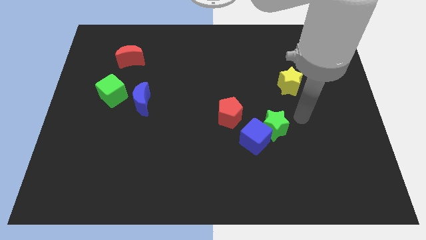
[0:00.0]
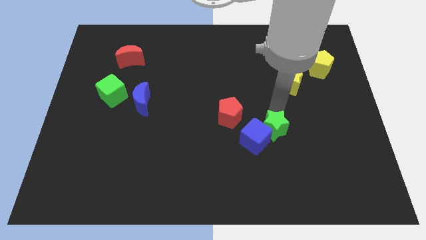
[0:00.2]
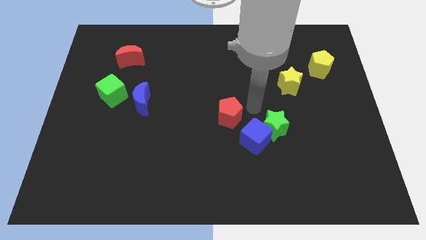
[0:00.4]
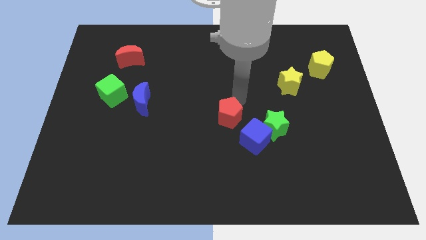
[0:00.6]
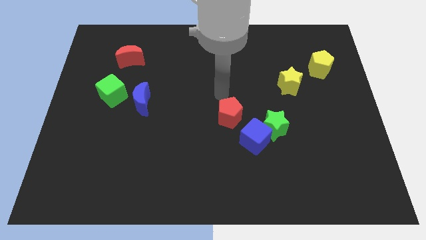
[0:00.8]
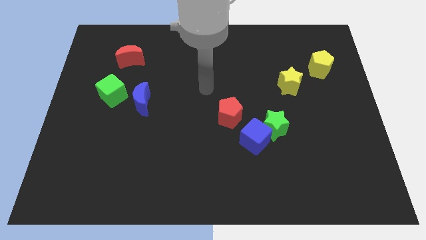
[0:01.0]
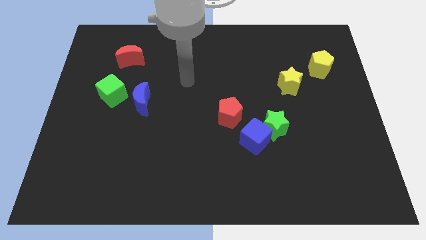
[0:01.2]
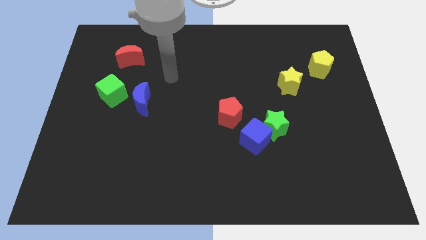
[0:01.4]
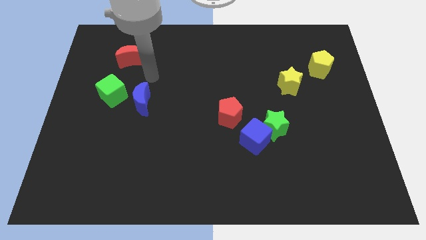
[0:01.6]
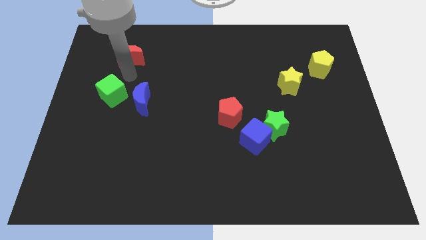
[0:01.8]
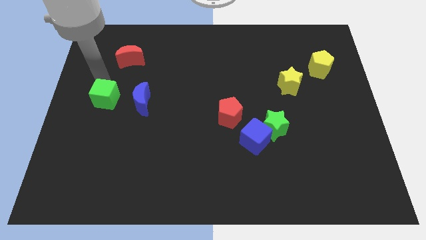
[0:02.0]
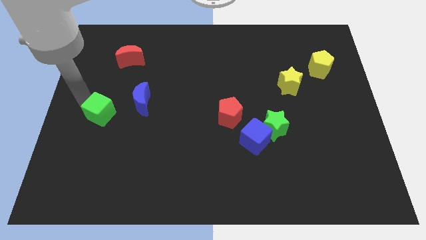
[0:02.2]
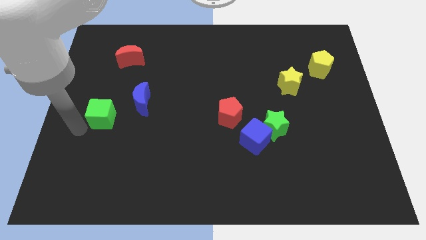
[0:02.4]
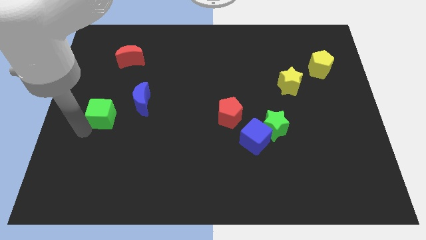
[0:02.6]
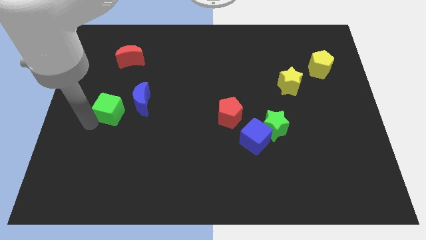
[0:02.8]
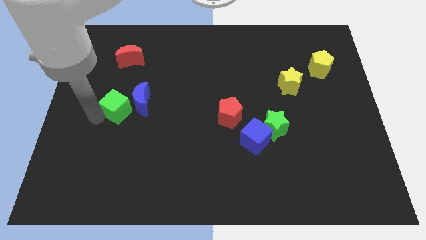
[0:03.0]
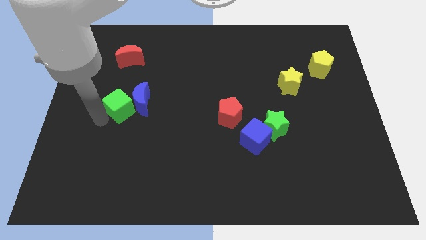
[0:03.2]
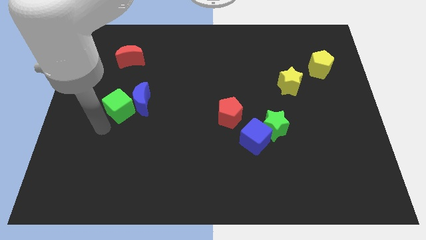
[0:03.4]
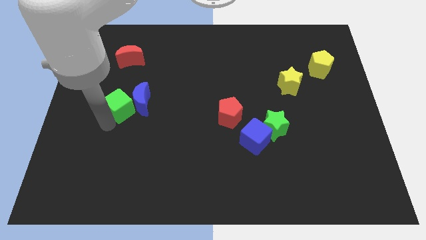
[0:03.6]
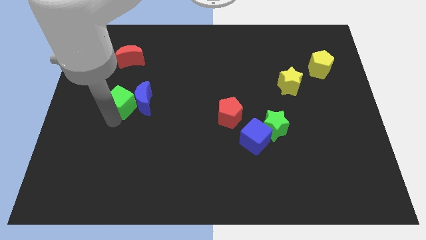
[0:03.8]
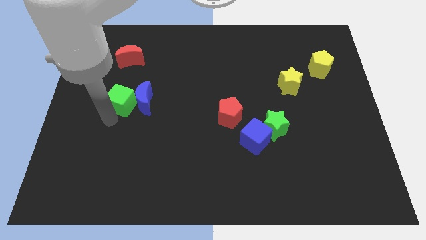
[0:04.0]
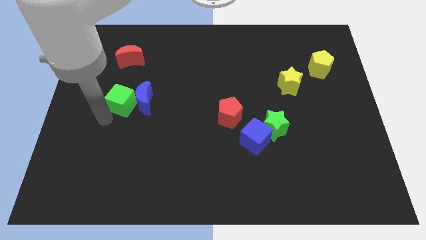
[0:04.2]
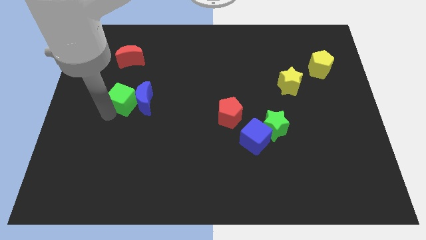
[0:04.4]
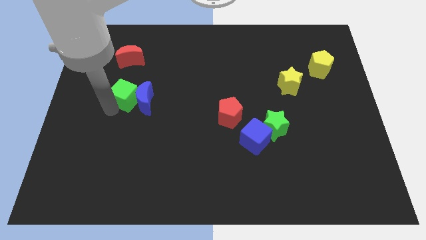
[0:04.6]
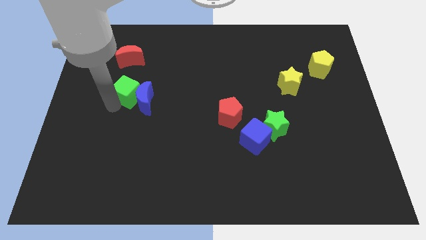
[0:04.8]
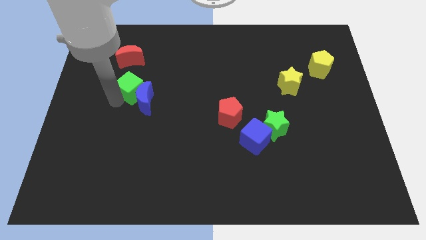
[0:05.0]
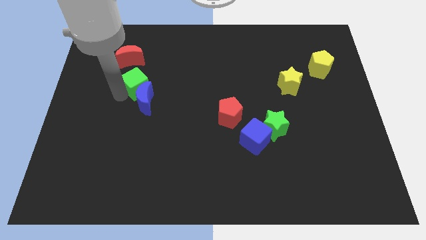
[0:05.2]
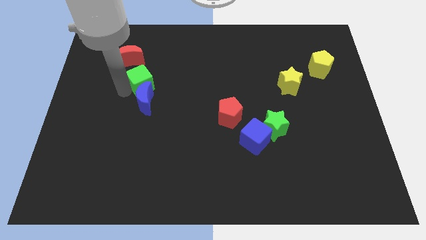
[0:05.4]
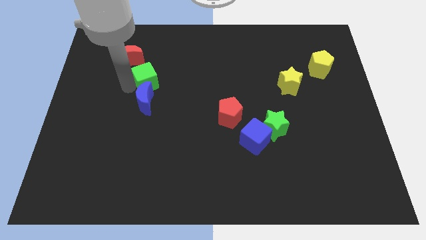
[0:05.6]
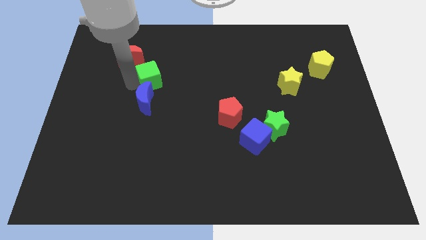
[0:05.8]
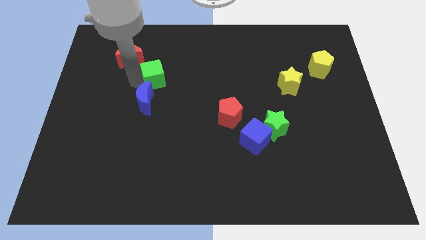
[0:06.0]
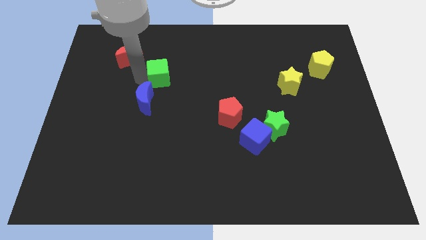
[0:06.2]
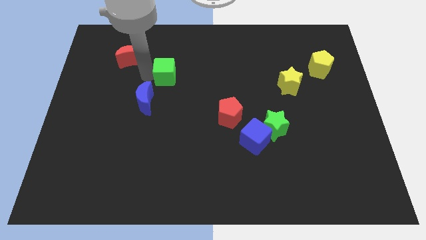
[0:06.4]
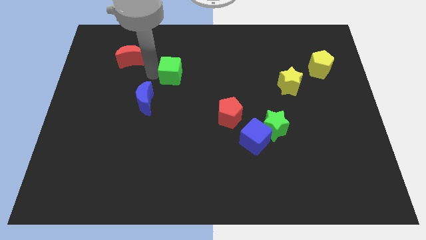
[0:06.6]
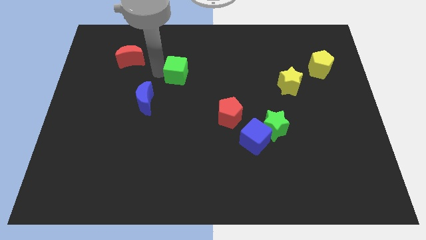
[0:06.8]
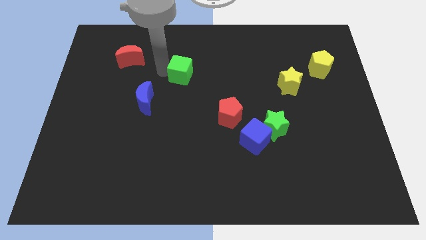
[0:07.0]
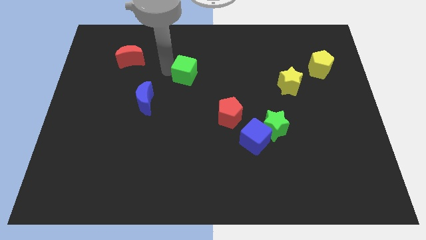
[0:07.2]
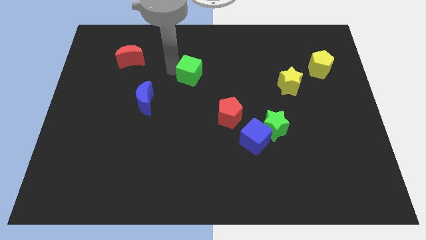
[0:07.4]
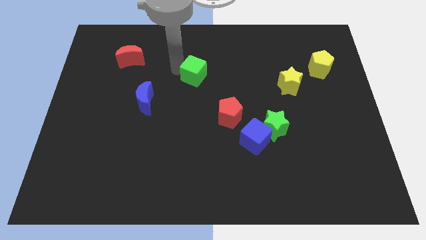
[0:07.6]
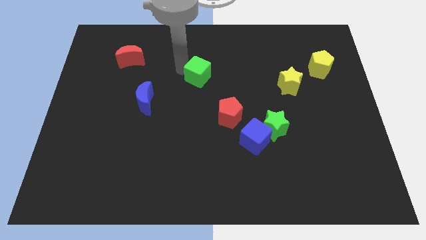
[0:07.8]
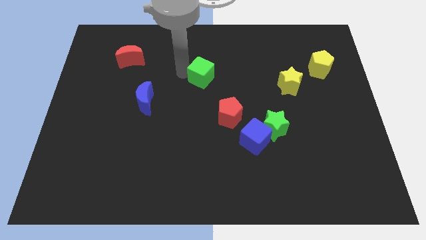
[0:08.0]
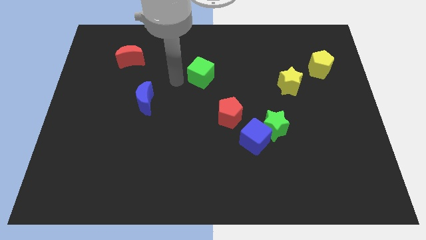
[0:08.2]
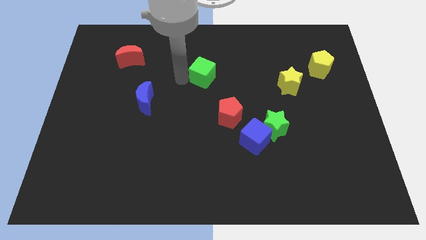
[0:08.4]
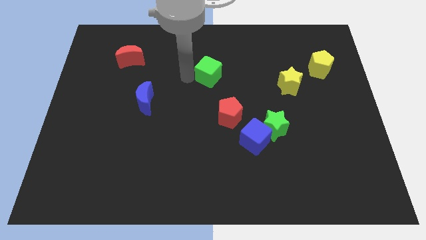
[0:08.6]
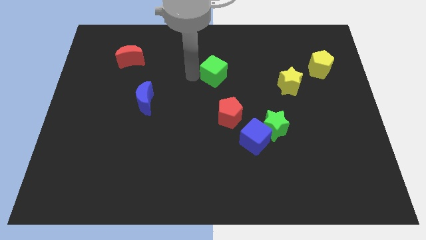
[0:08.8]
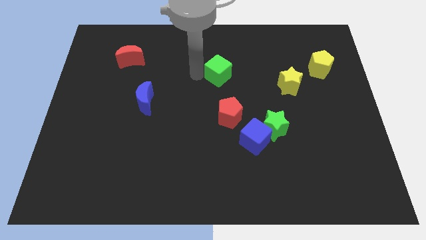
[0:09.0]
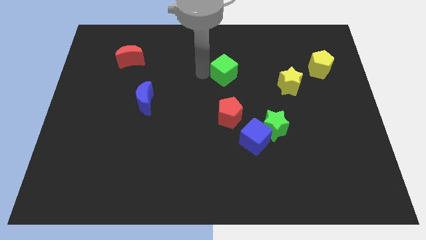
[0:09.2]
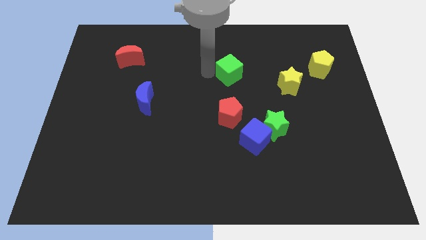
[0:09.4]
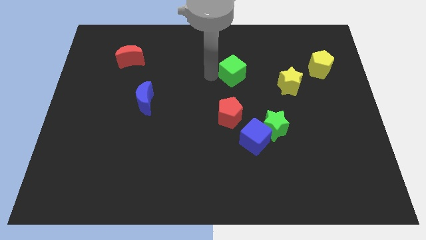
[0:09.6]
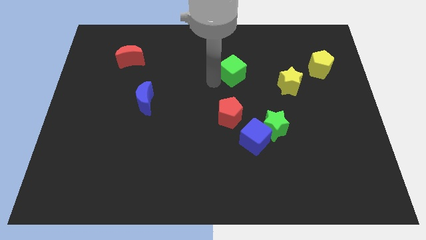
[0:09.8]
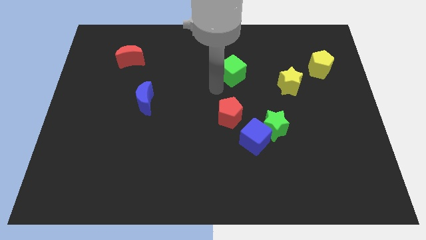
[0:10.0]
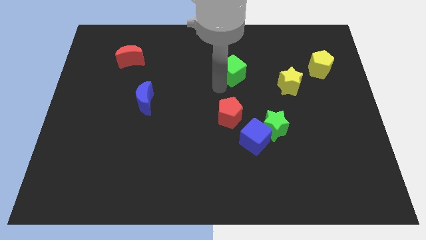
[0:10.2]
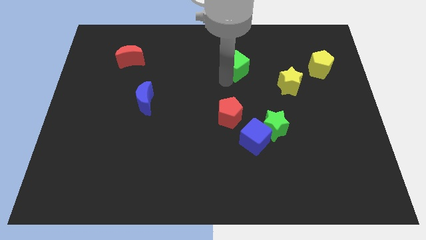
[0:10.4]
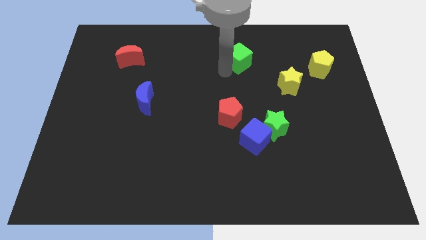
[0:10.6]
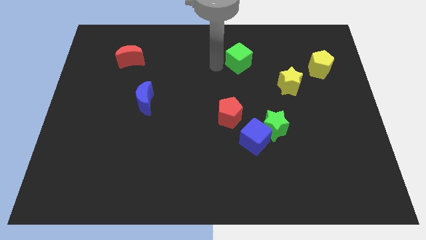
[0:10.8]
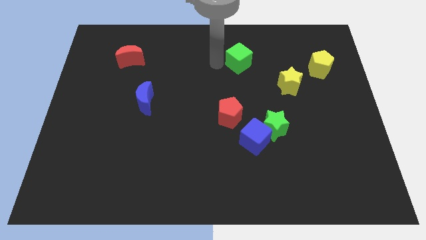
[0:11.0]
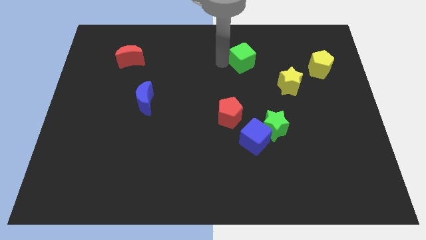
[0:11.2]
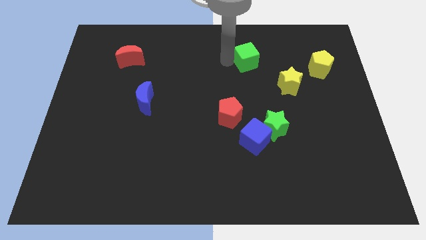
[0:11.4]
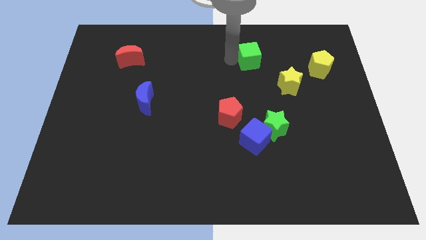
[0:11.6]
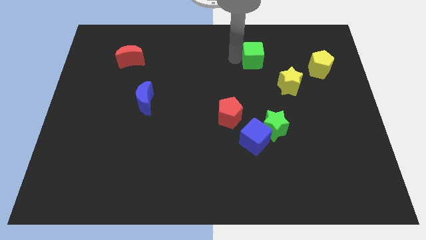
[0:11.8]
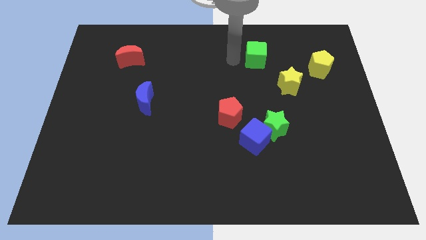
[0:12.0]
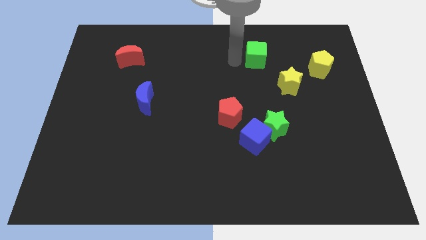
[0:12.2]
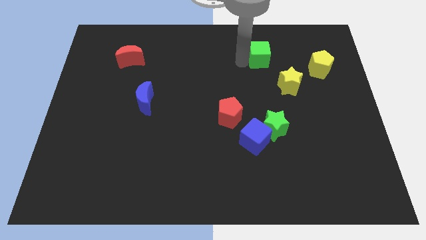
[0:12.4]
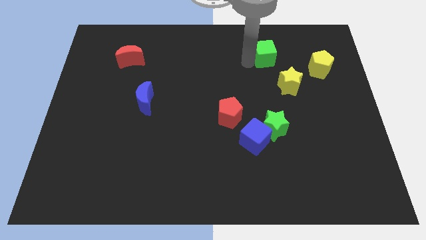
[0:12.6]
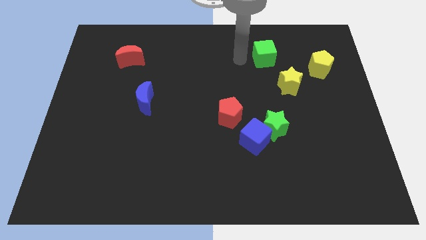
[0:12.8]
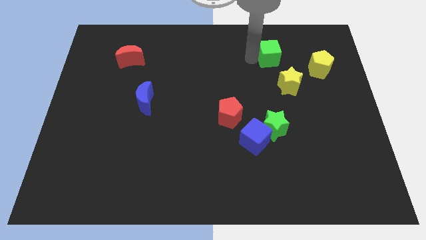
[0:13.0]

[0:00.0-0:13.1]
move the green cube to the top side of the yellow star

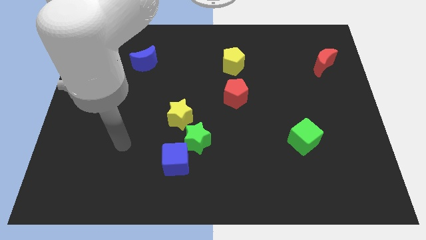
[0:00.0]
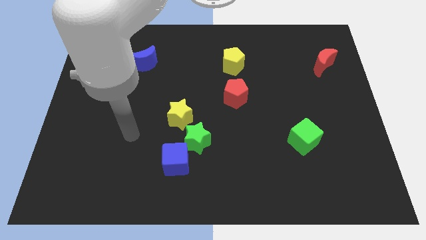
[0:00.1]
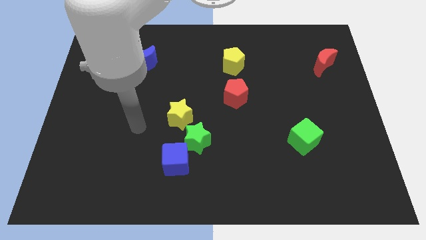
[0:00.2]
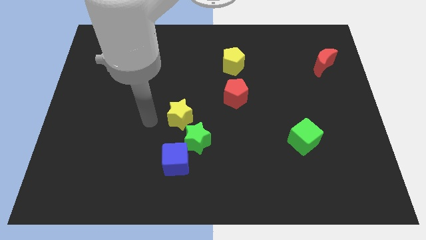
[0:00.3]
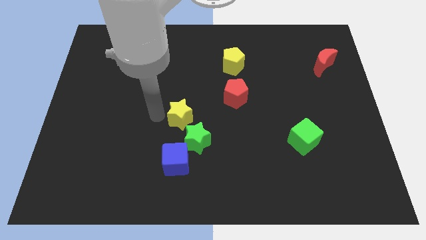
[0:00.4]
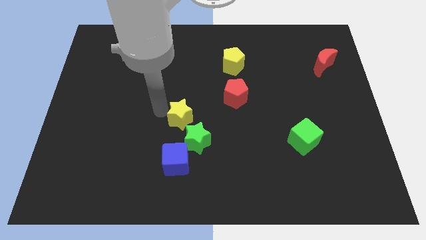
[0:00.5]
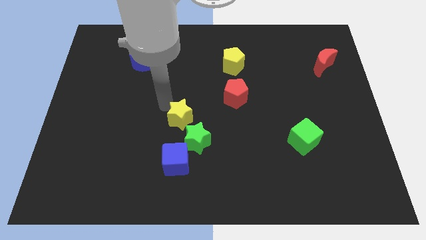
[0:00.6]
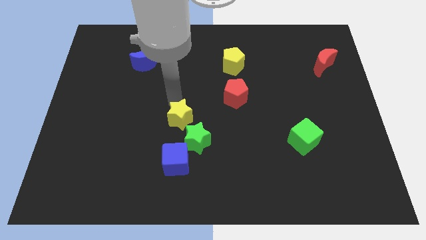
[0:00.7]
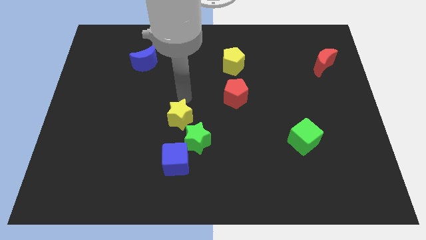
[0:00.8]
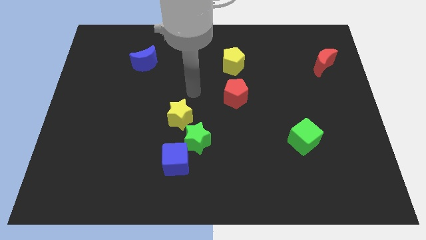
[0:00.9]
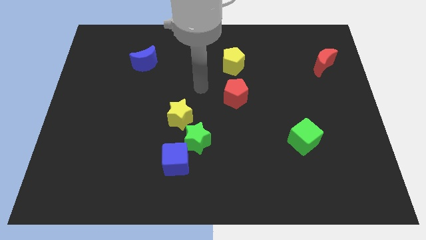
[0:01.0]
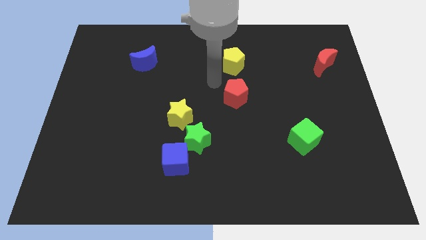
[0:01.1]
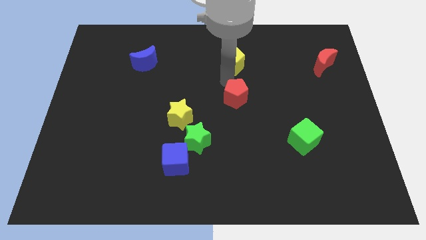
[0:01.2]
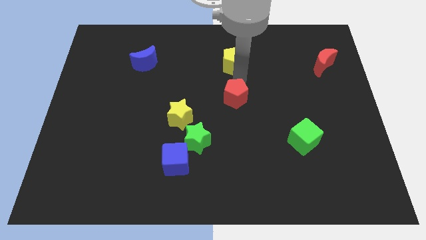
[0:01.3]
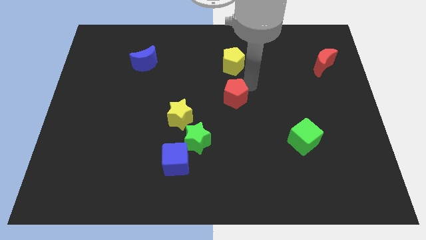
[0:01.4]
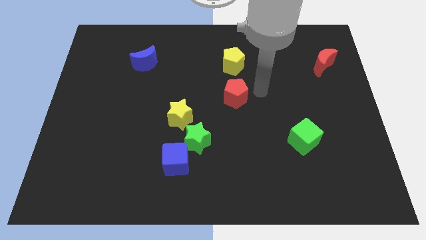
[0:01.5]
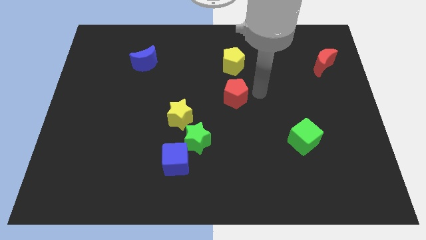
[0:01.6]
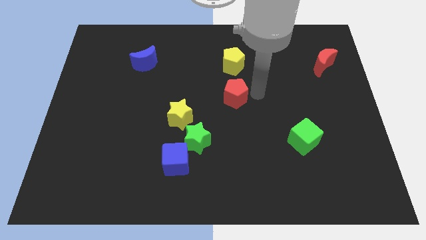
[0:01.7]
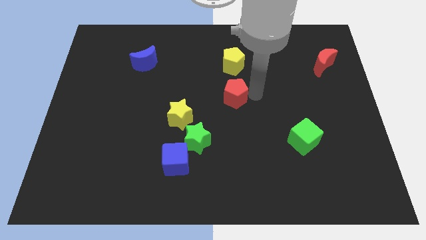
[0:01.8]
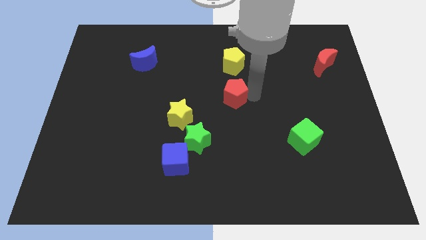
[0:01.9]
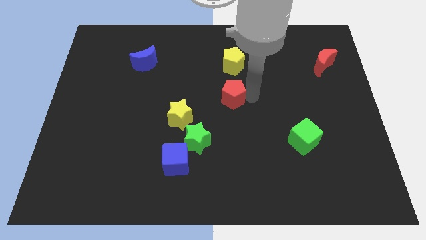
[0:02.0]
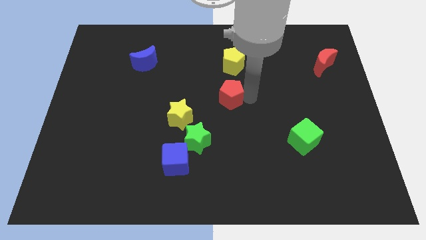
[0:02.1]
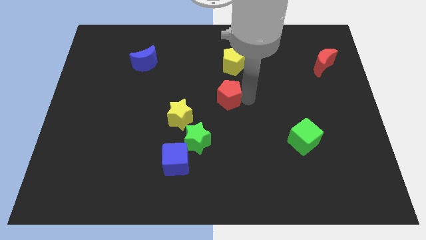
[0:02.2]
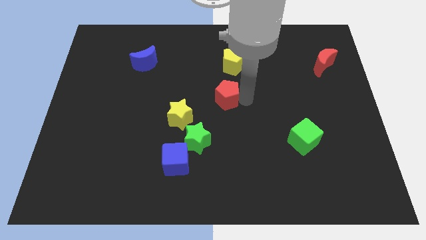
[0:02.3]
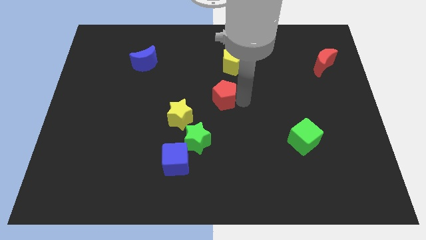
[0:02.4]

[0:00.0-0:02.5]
push the red pentagon diagonally up and to the right of the yellow star
